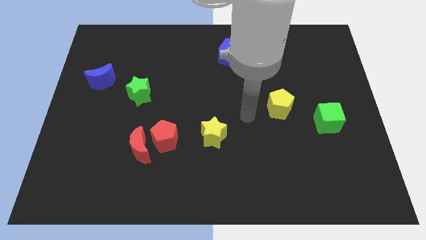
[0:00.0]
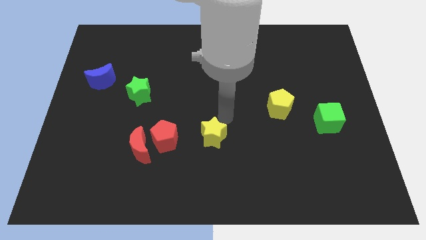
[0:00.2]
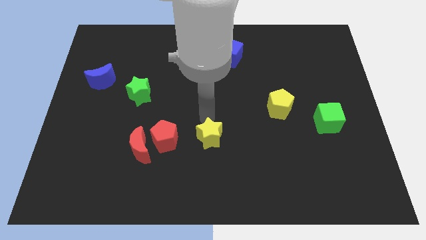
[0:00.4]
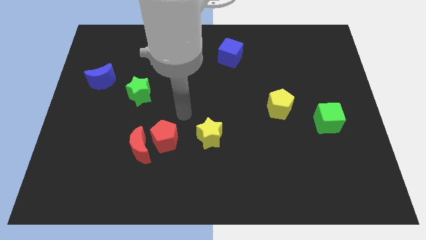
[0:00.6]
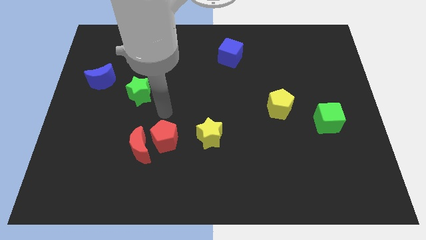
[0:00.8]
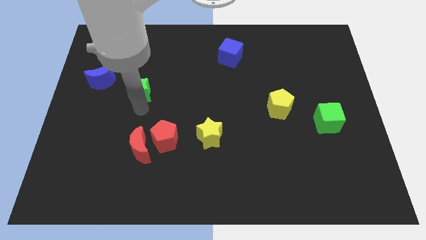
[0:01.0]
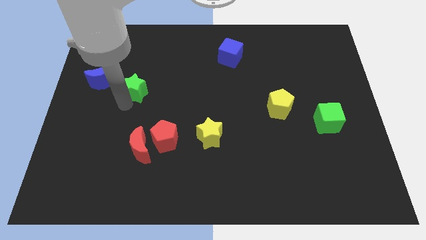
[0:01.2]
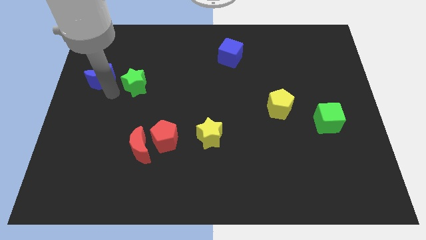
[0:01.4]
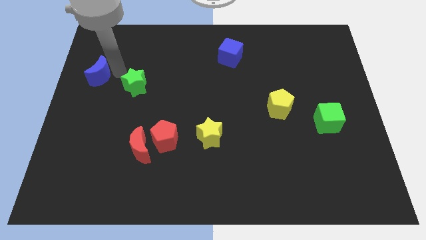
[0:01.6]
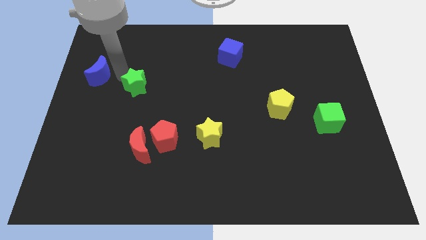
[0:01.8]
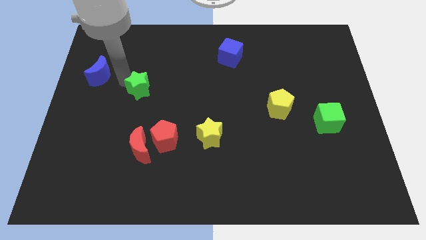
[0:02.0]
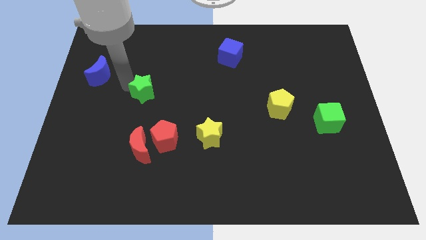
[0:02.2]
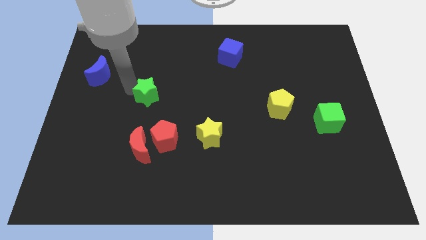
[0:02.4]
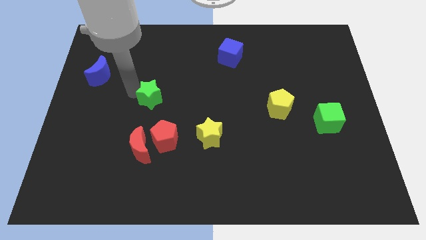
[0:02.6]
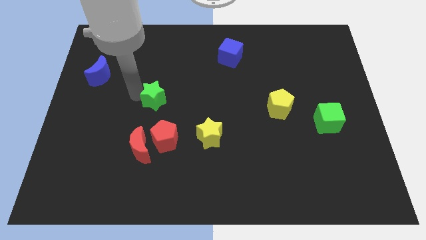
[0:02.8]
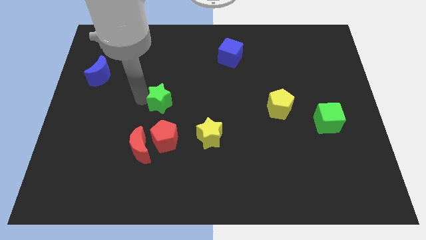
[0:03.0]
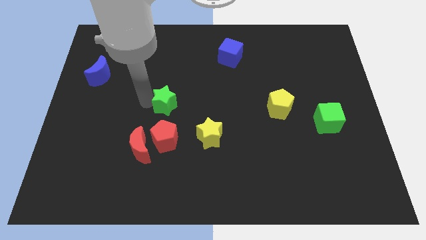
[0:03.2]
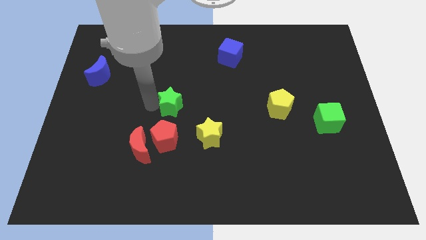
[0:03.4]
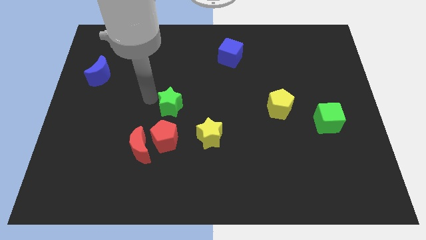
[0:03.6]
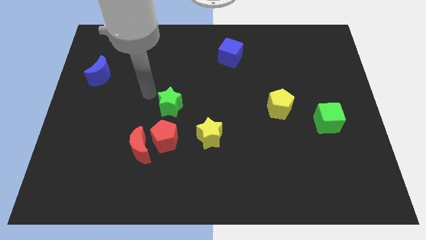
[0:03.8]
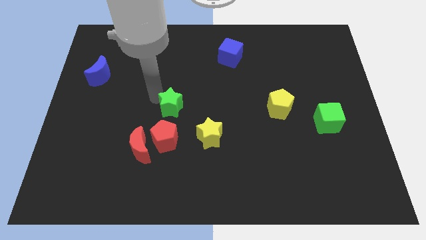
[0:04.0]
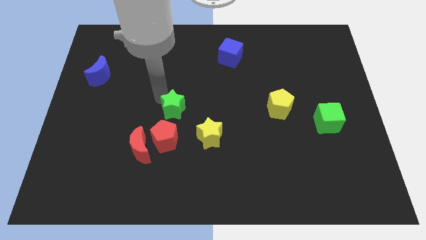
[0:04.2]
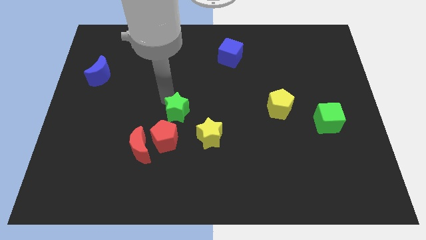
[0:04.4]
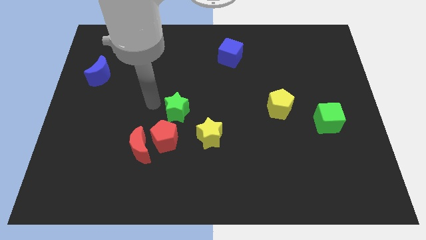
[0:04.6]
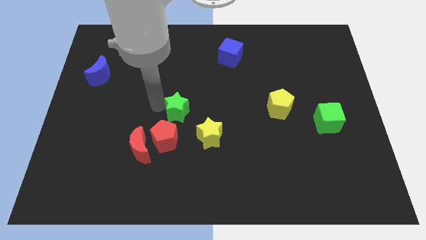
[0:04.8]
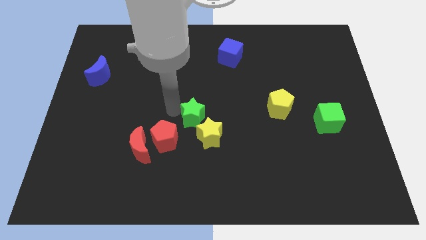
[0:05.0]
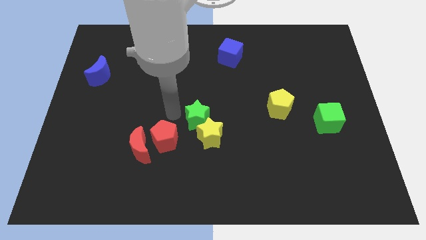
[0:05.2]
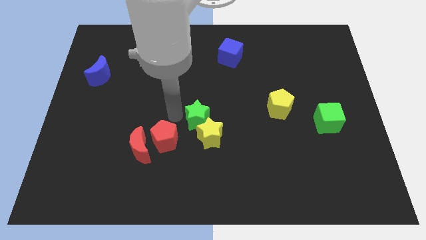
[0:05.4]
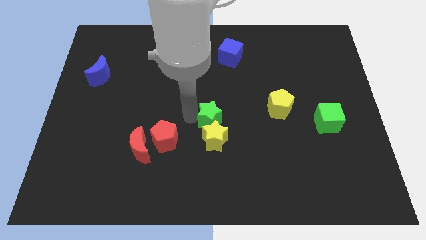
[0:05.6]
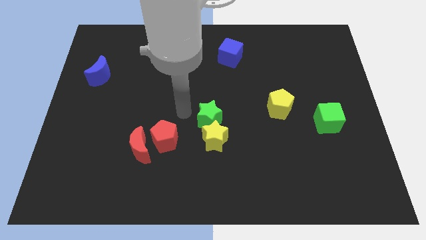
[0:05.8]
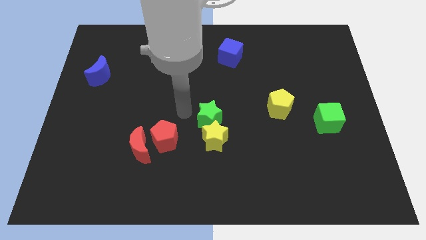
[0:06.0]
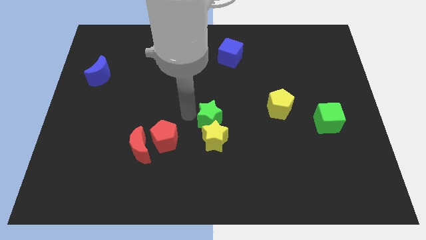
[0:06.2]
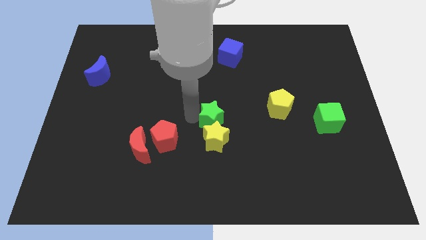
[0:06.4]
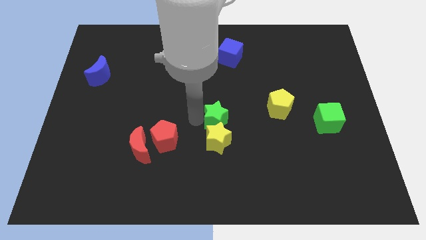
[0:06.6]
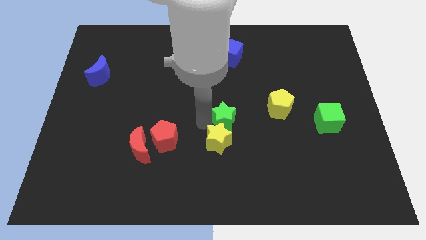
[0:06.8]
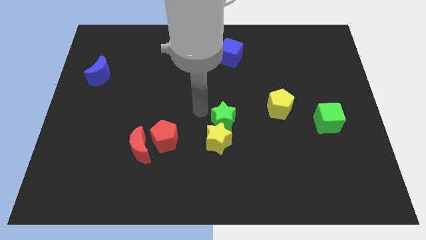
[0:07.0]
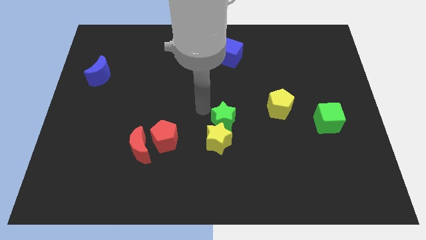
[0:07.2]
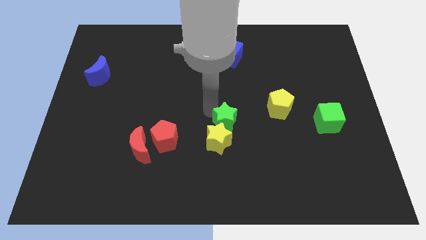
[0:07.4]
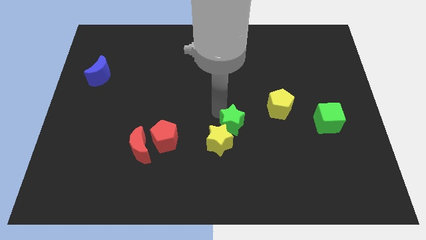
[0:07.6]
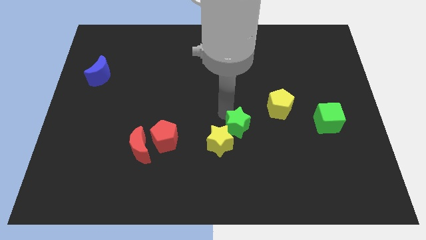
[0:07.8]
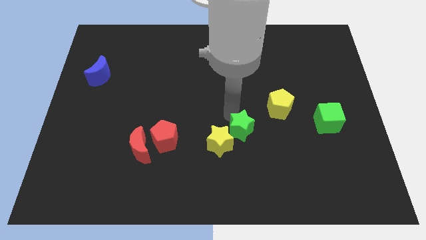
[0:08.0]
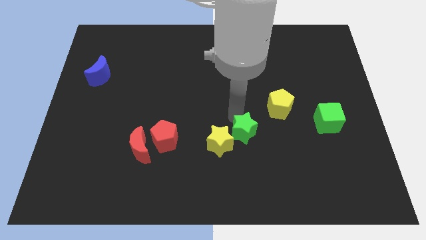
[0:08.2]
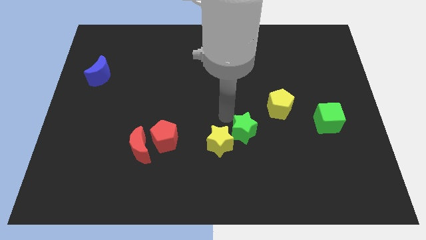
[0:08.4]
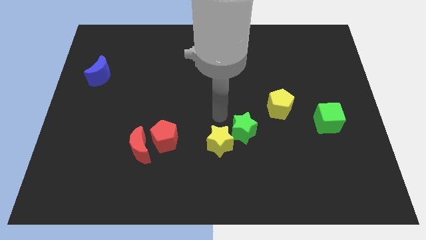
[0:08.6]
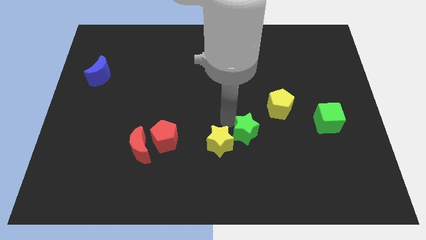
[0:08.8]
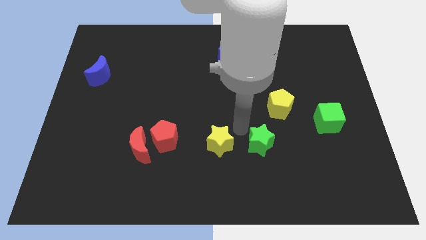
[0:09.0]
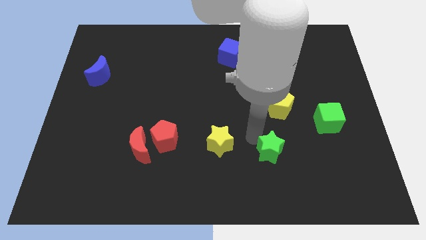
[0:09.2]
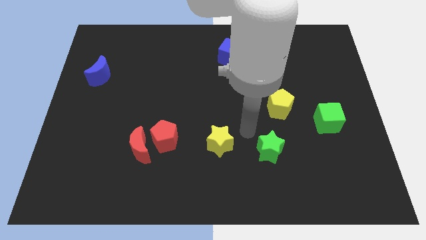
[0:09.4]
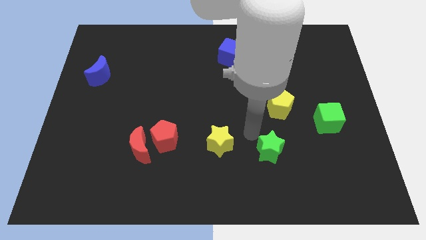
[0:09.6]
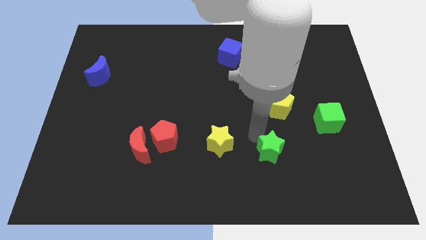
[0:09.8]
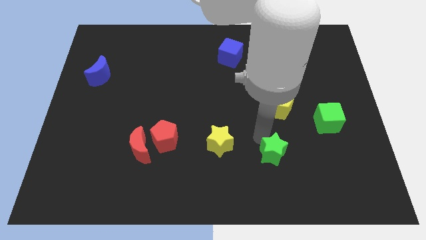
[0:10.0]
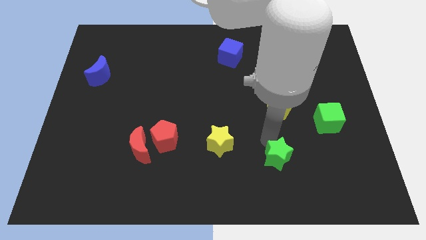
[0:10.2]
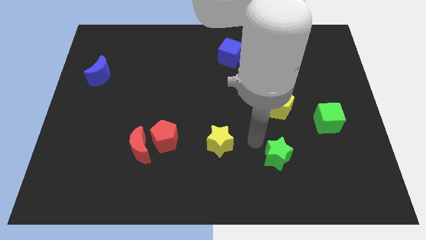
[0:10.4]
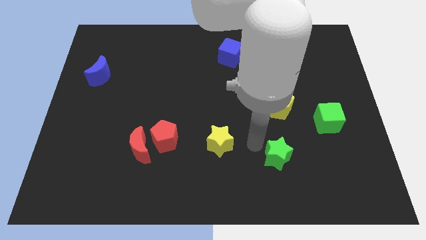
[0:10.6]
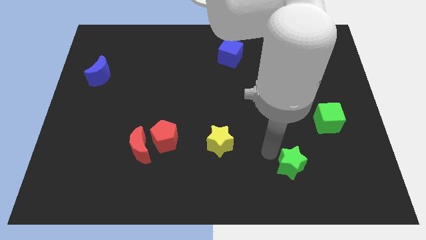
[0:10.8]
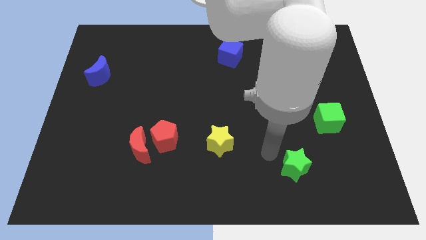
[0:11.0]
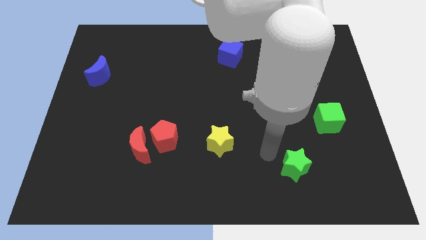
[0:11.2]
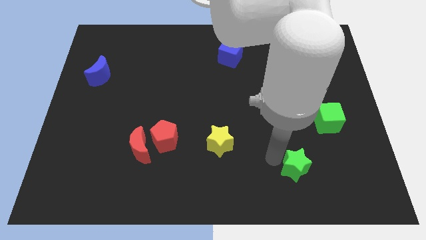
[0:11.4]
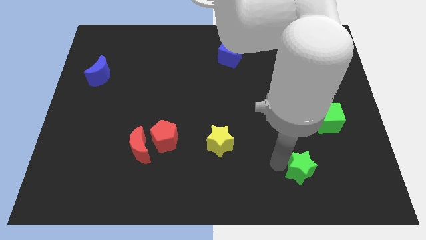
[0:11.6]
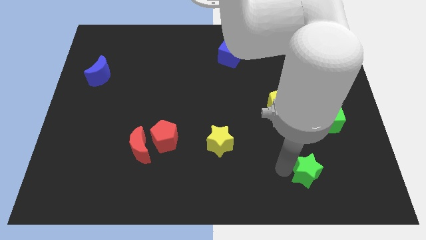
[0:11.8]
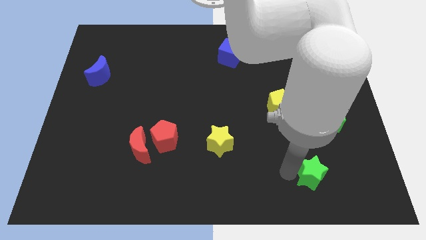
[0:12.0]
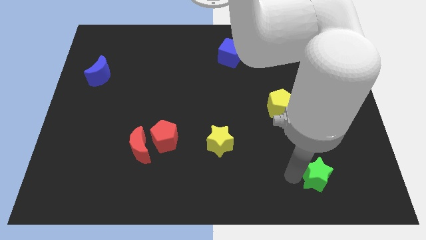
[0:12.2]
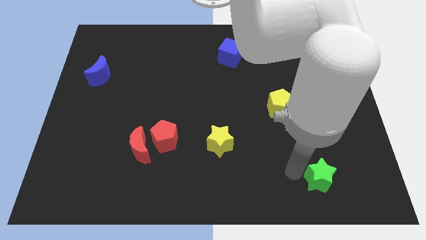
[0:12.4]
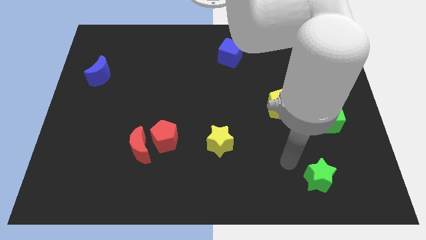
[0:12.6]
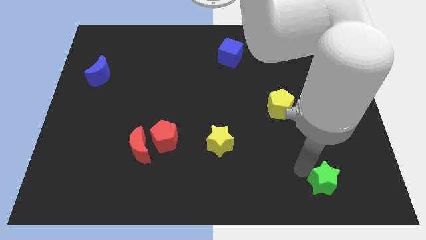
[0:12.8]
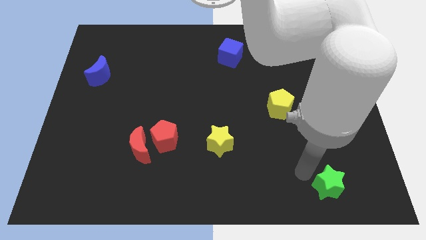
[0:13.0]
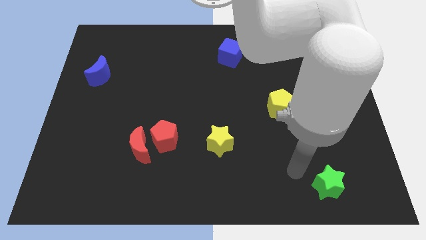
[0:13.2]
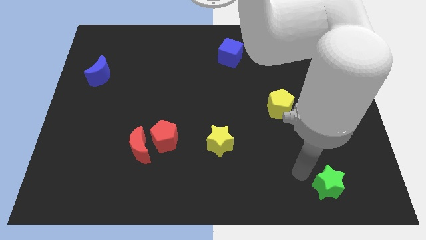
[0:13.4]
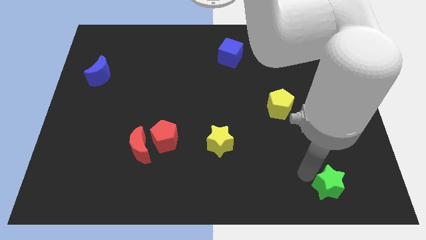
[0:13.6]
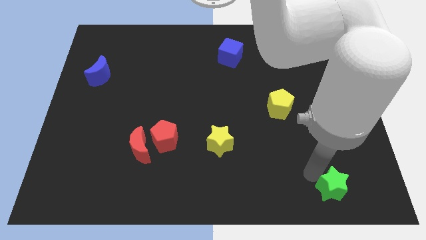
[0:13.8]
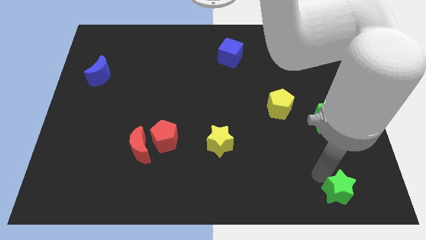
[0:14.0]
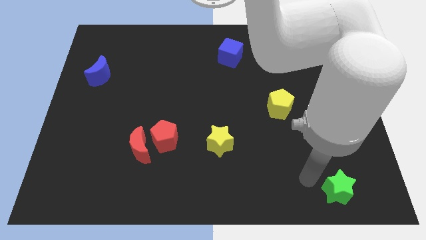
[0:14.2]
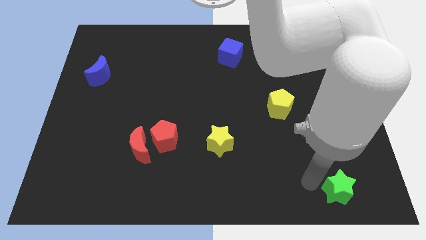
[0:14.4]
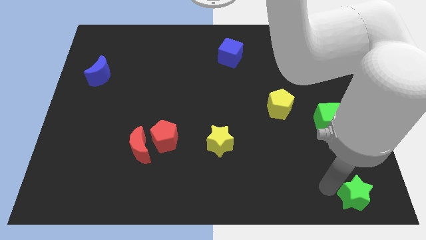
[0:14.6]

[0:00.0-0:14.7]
slide the green star to the lower right corner
